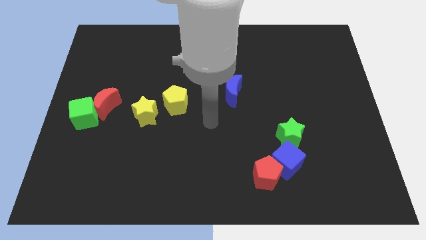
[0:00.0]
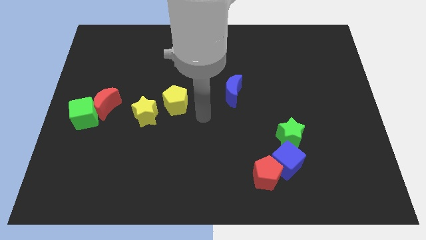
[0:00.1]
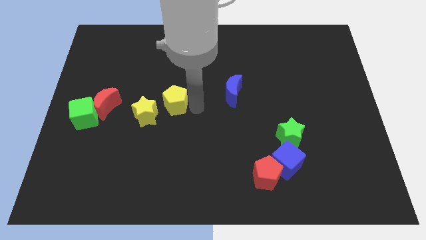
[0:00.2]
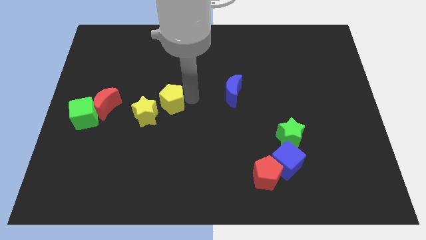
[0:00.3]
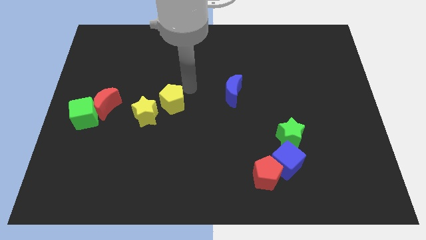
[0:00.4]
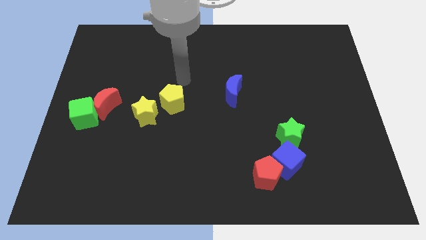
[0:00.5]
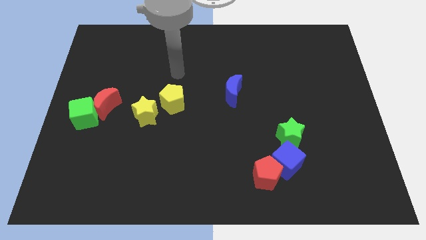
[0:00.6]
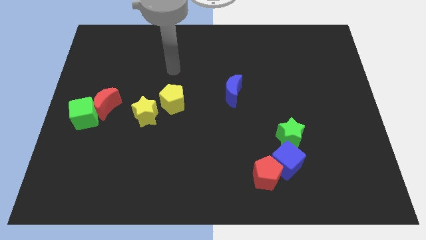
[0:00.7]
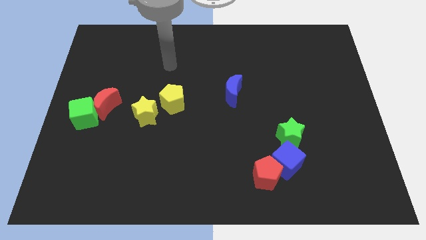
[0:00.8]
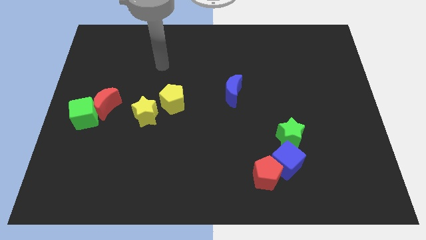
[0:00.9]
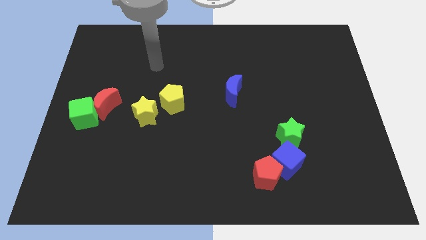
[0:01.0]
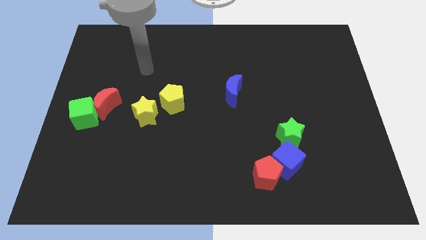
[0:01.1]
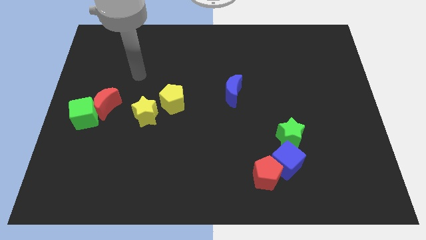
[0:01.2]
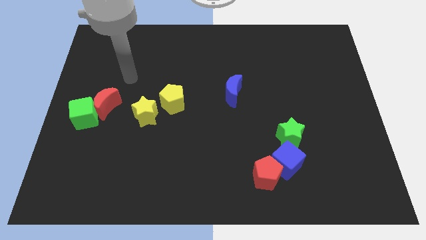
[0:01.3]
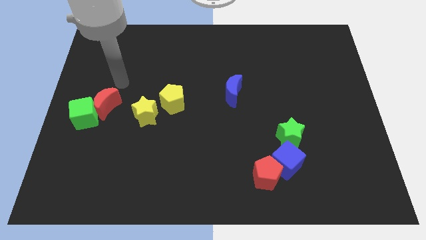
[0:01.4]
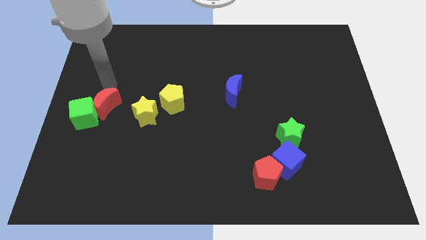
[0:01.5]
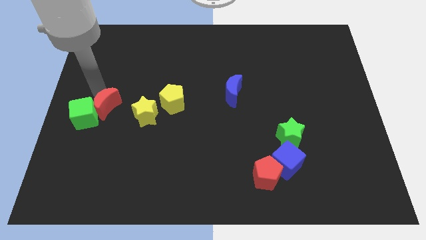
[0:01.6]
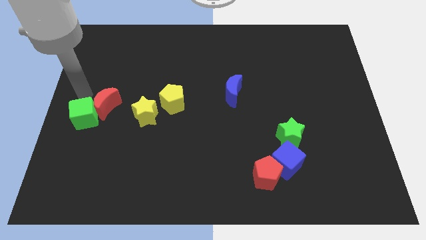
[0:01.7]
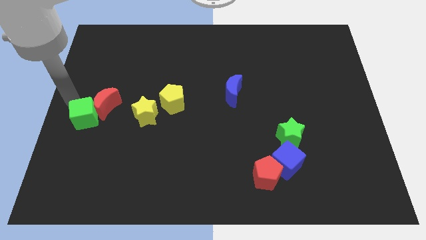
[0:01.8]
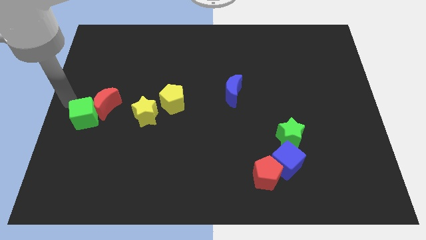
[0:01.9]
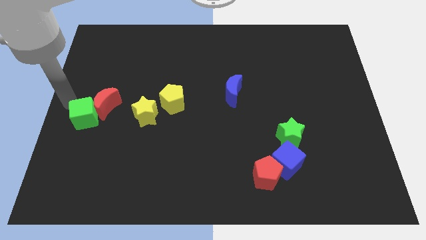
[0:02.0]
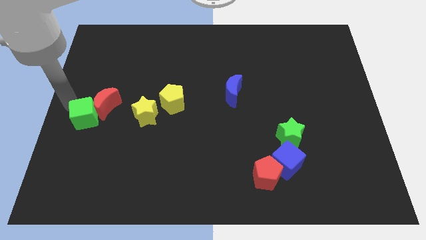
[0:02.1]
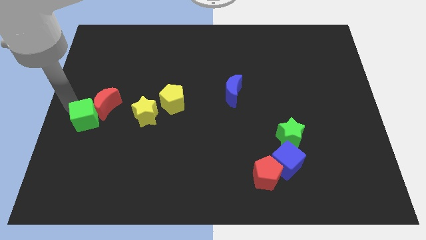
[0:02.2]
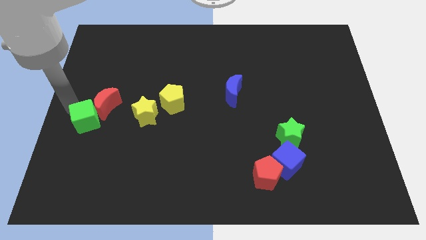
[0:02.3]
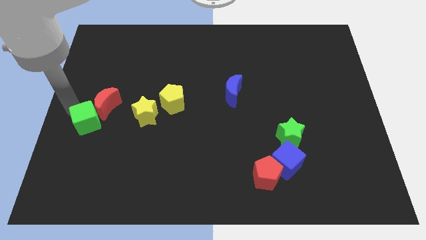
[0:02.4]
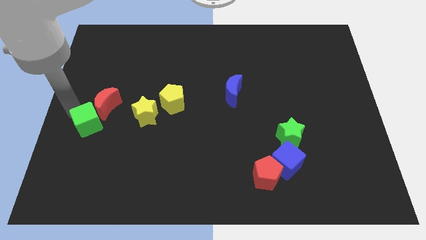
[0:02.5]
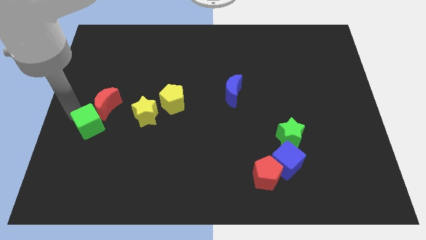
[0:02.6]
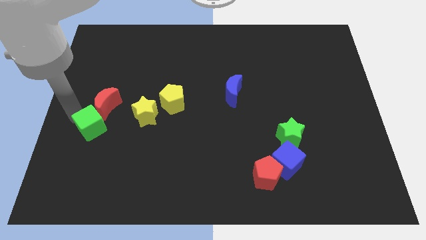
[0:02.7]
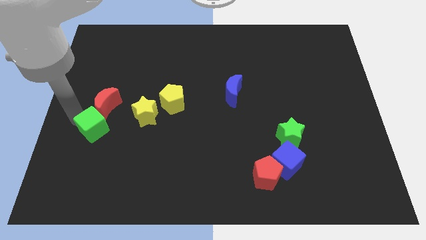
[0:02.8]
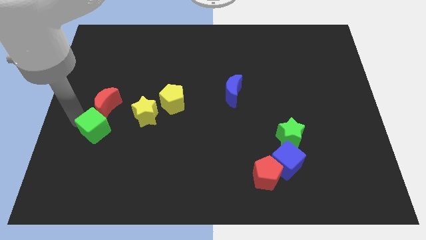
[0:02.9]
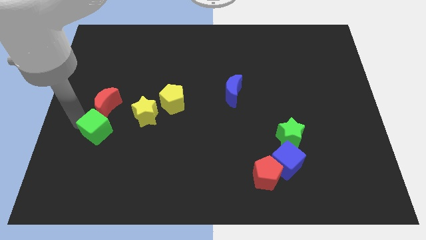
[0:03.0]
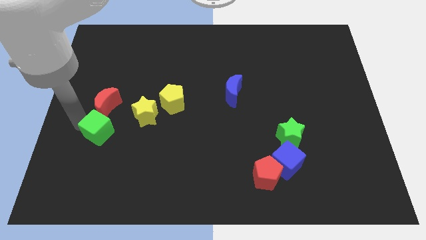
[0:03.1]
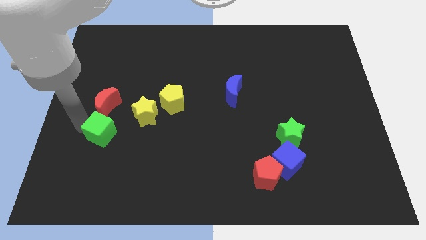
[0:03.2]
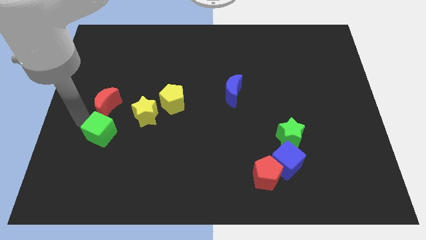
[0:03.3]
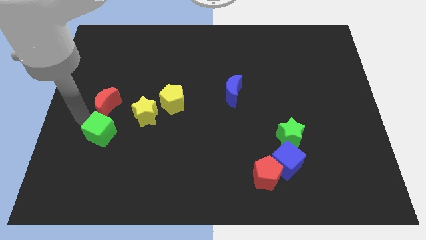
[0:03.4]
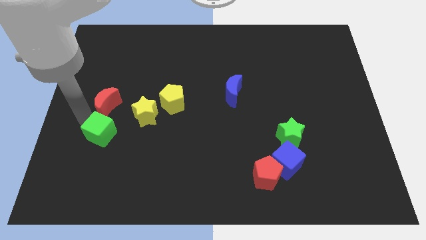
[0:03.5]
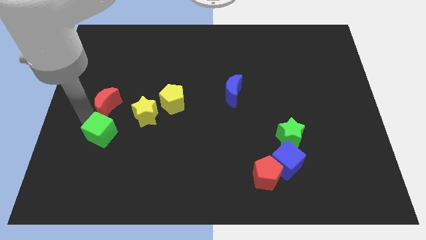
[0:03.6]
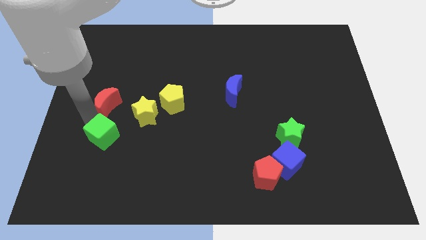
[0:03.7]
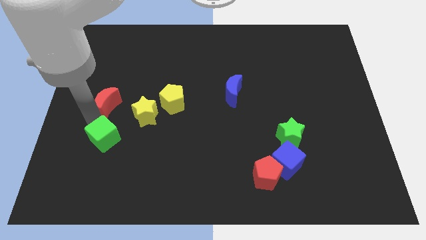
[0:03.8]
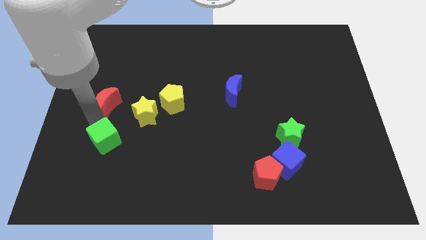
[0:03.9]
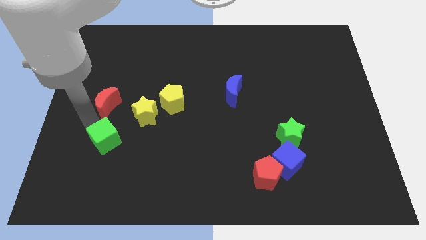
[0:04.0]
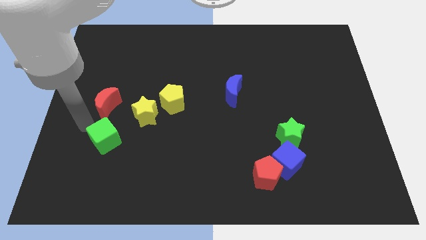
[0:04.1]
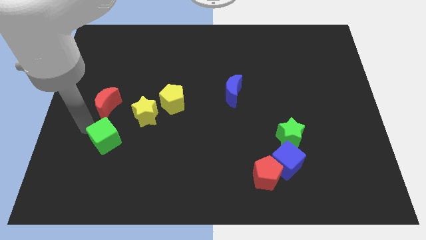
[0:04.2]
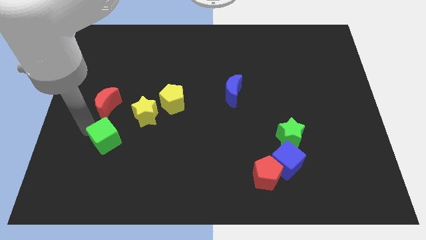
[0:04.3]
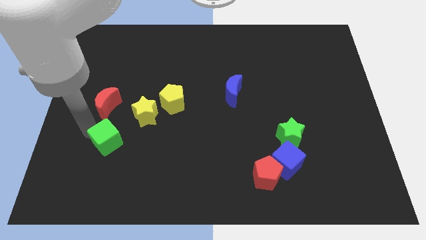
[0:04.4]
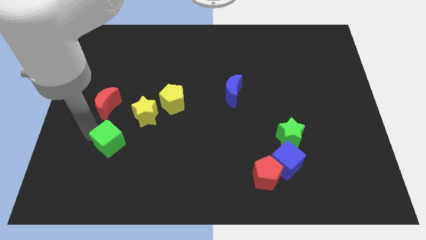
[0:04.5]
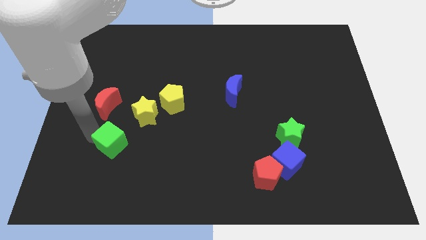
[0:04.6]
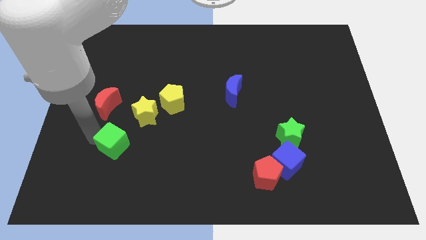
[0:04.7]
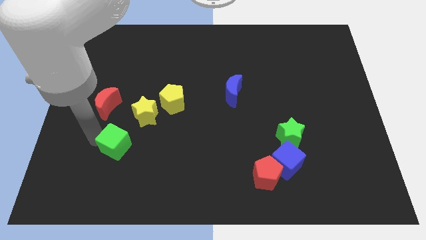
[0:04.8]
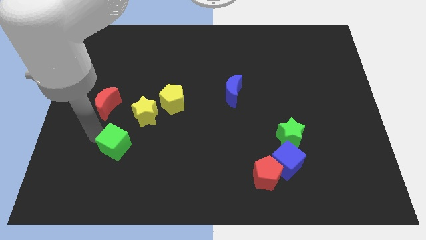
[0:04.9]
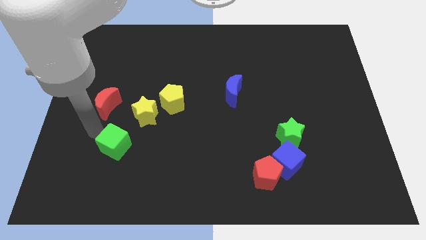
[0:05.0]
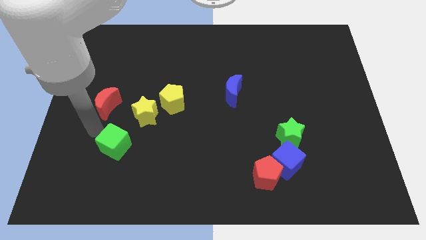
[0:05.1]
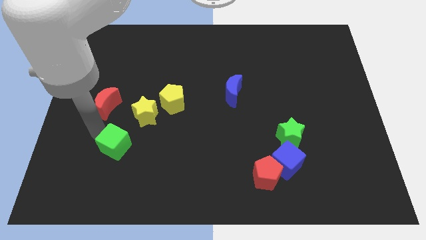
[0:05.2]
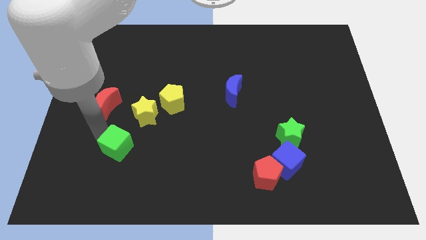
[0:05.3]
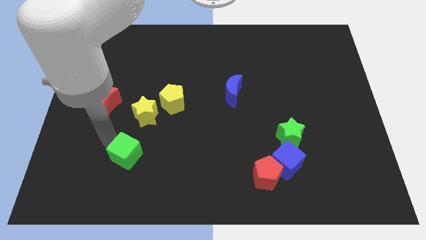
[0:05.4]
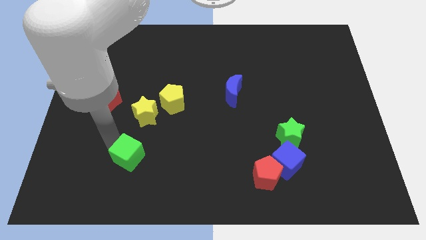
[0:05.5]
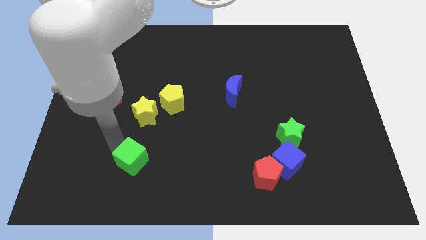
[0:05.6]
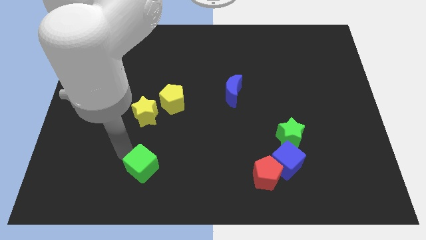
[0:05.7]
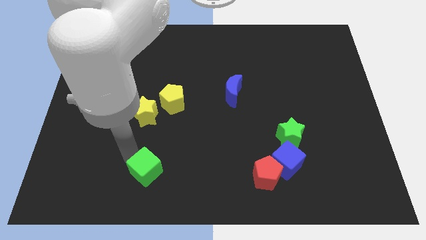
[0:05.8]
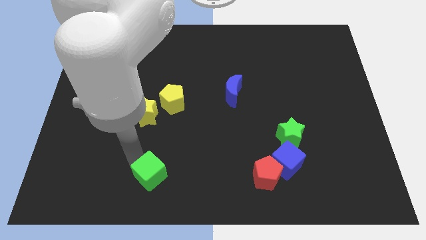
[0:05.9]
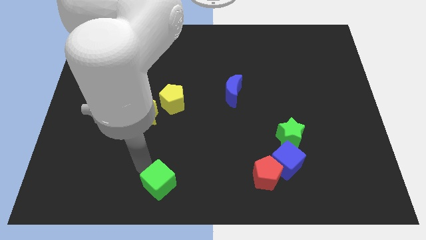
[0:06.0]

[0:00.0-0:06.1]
push the green cube to the bottom
